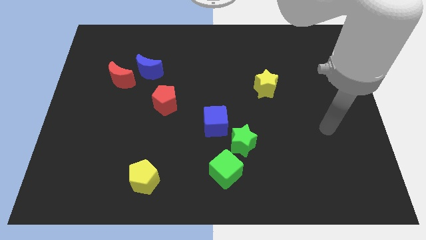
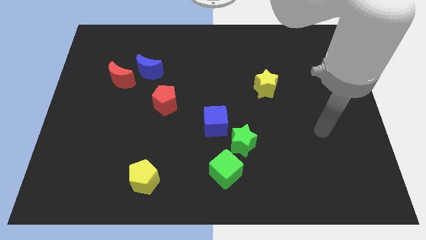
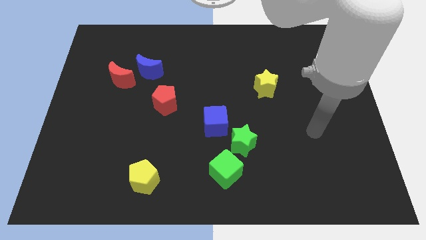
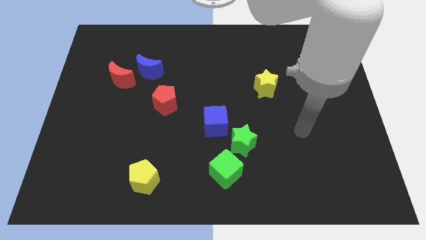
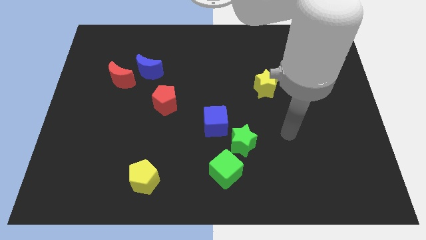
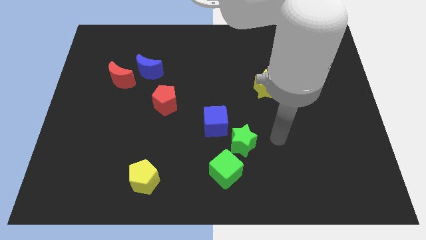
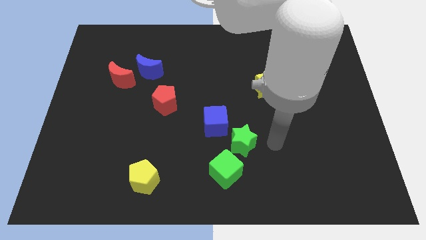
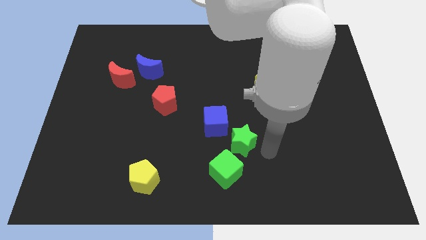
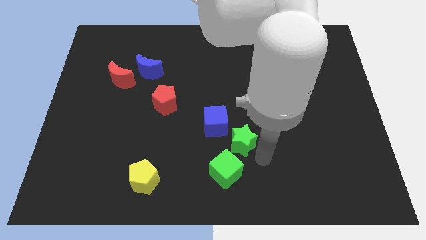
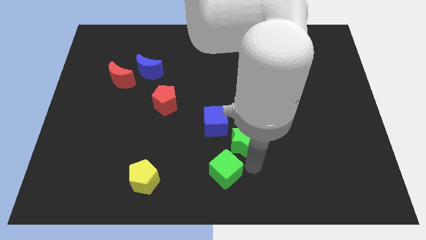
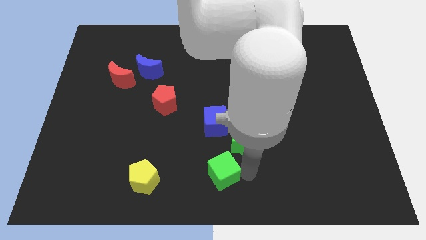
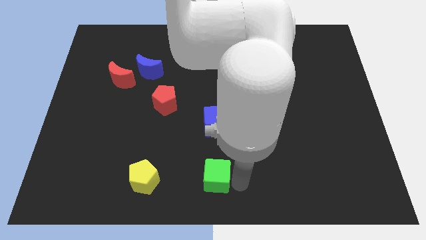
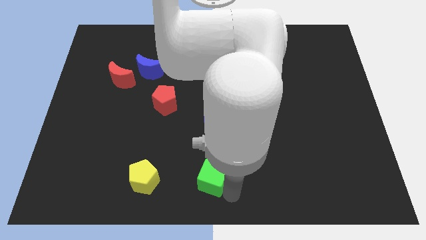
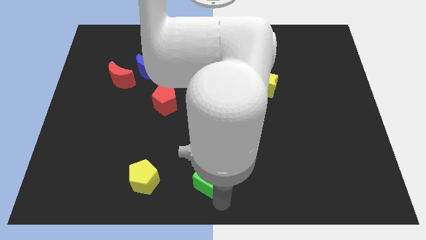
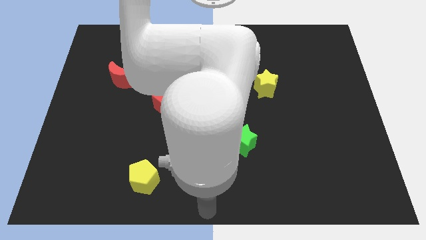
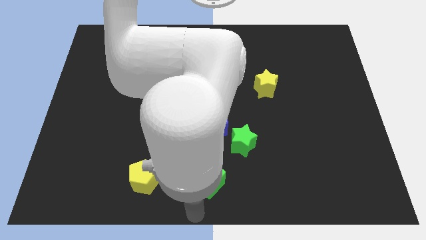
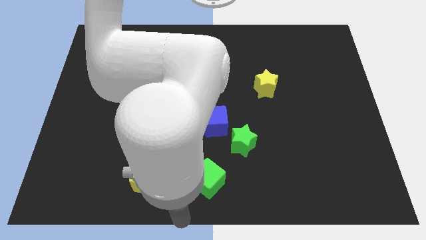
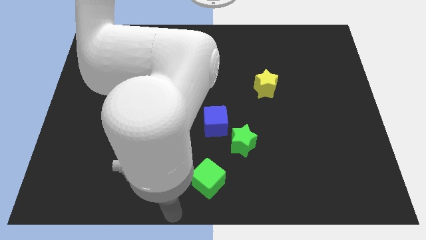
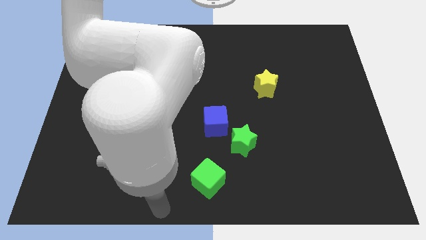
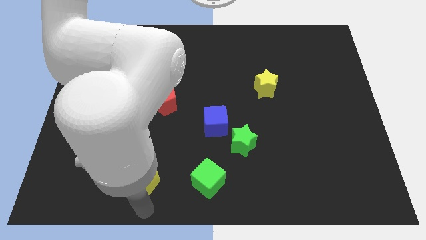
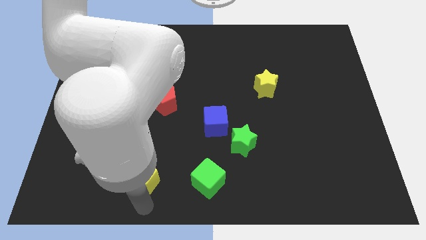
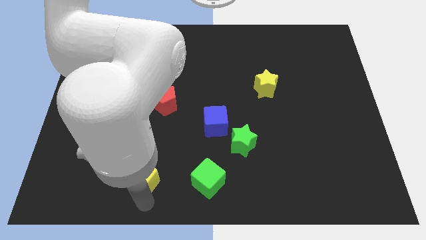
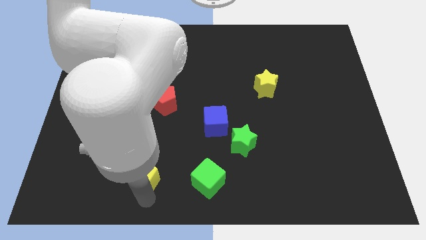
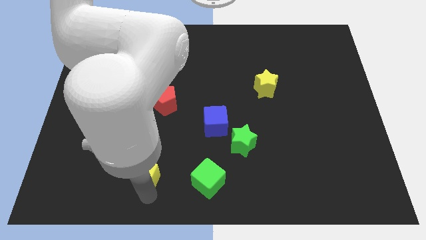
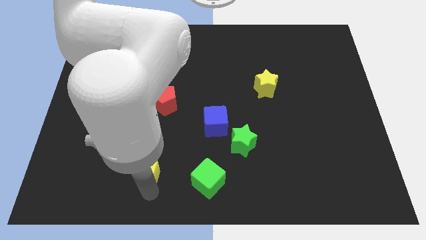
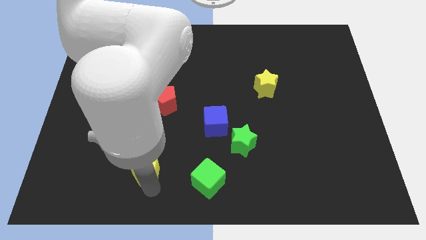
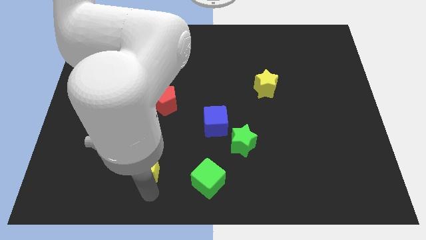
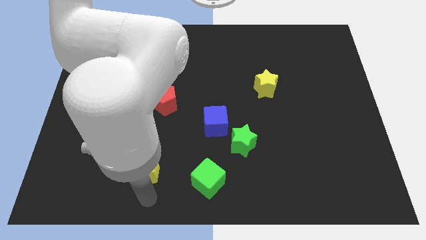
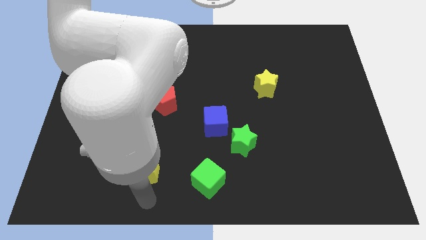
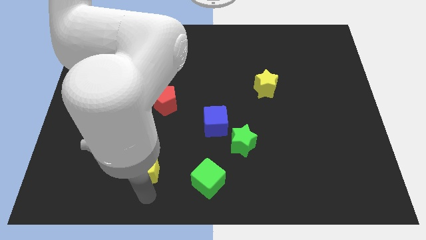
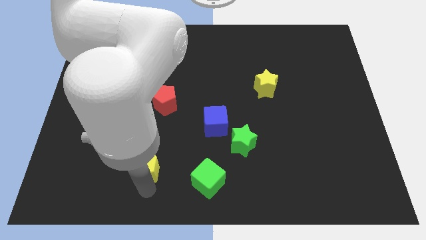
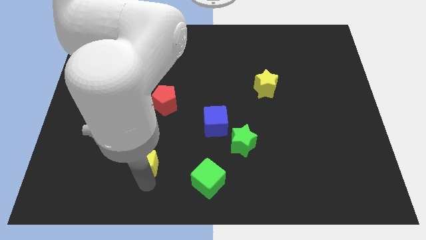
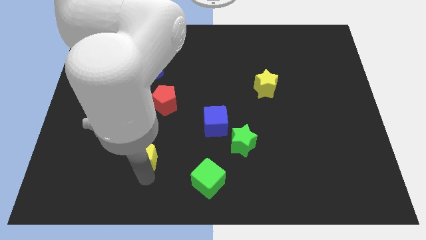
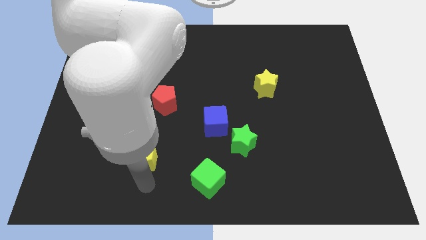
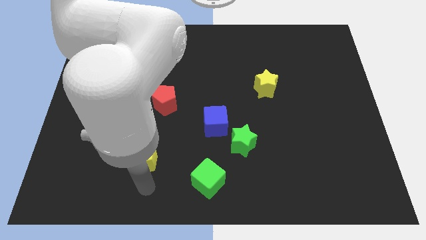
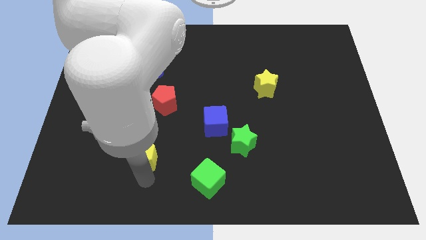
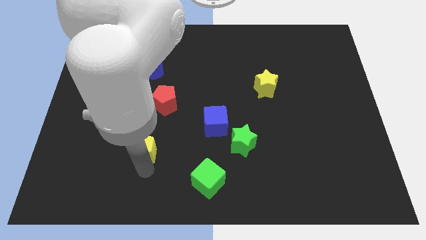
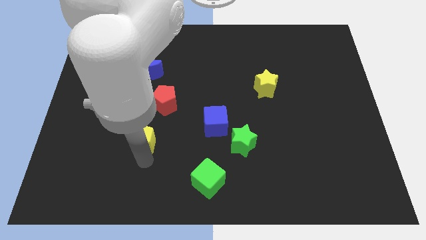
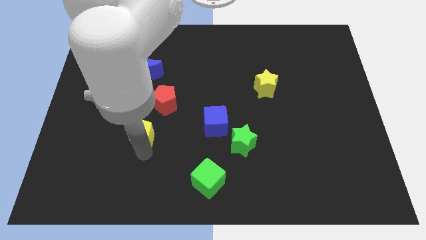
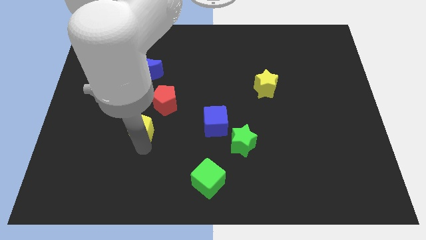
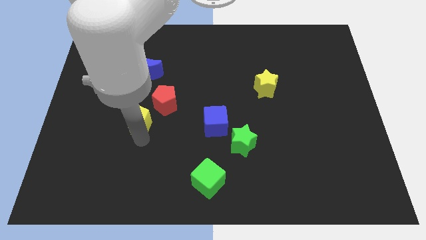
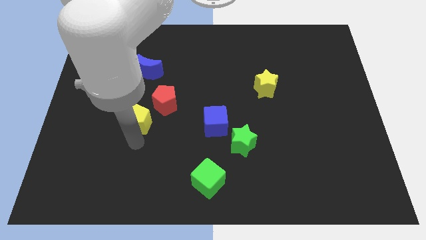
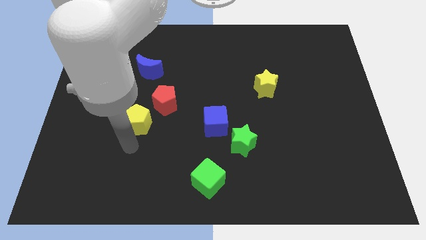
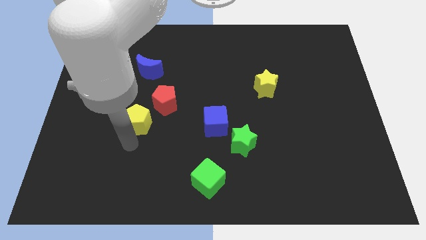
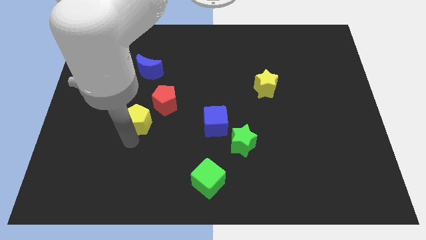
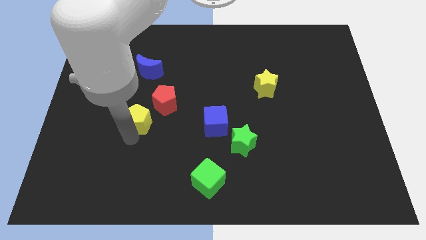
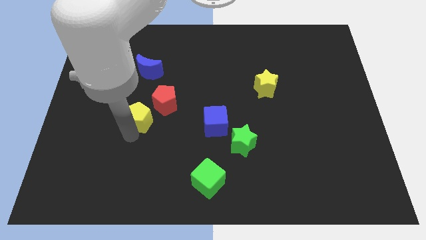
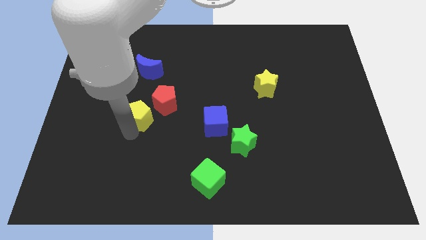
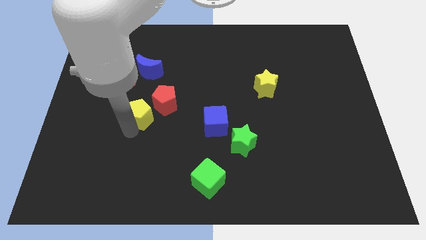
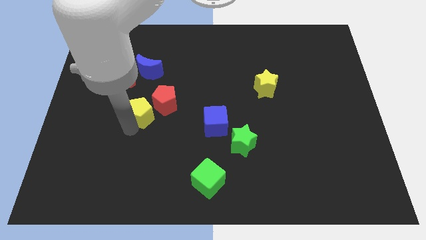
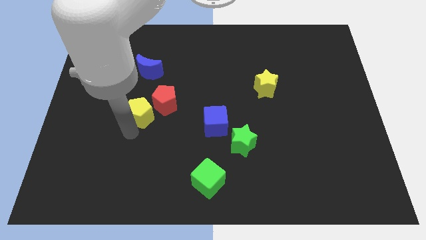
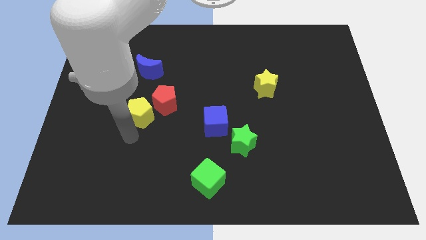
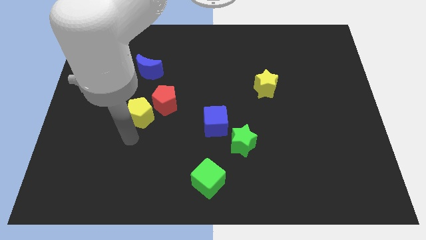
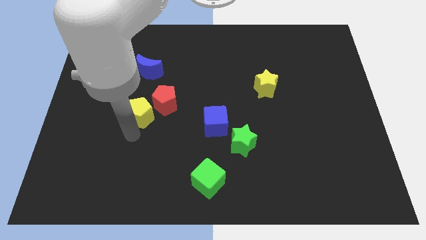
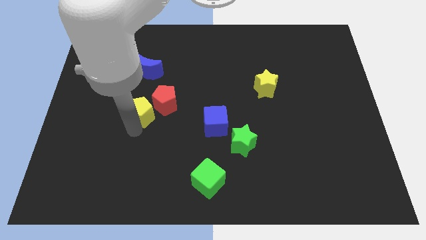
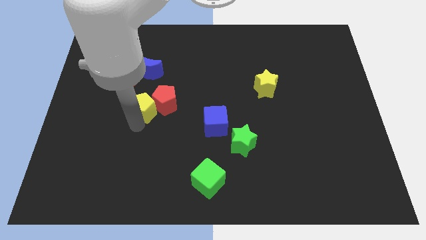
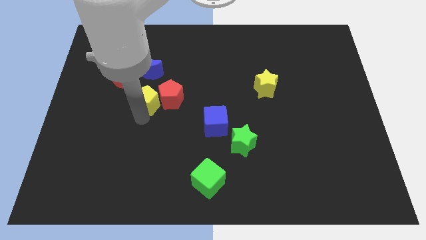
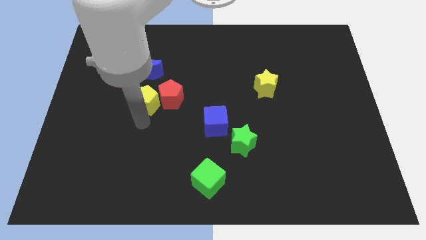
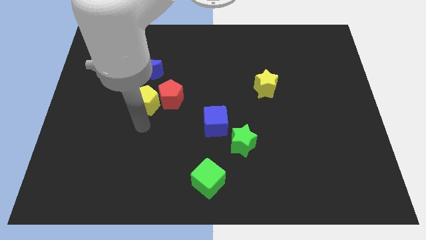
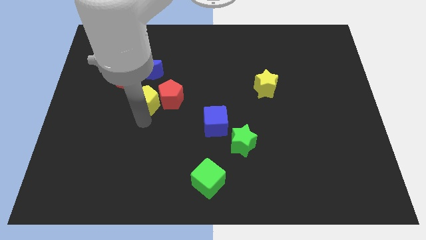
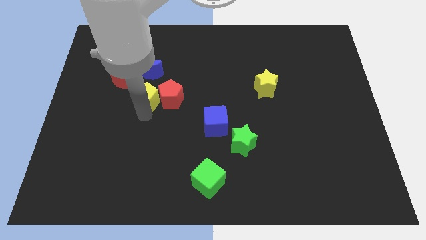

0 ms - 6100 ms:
slide the yellow pentagon to the top left side of the red pentagon

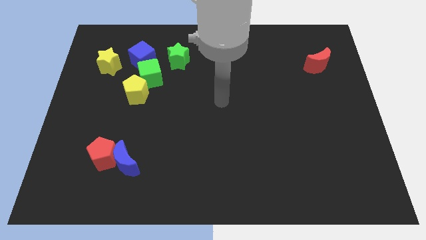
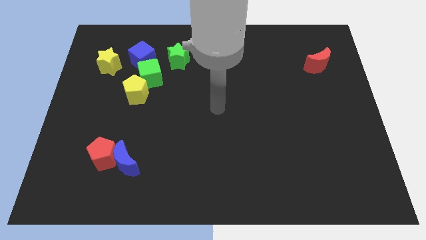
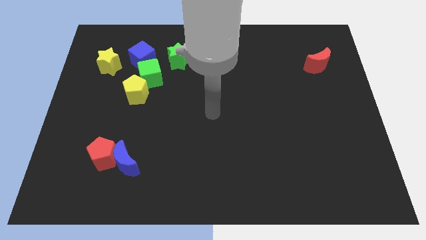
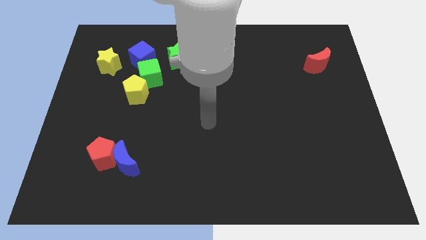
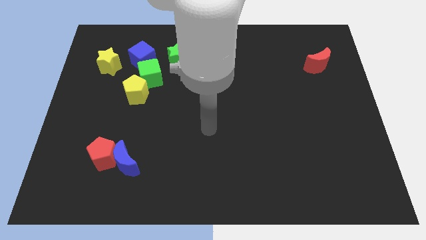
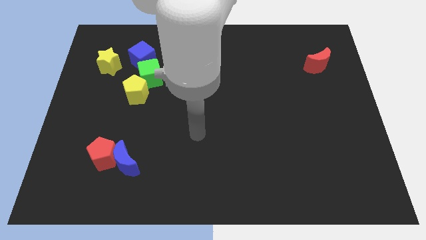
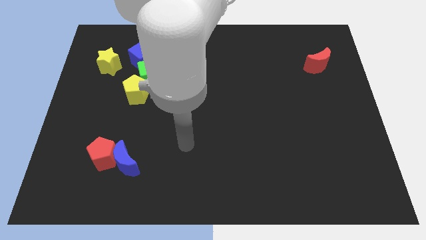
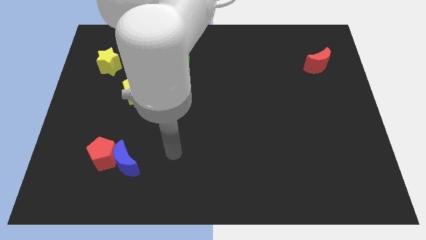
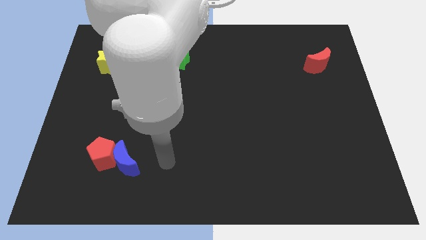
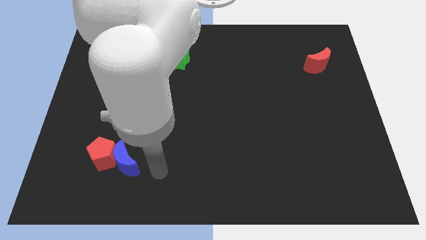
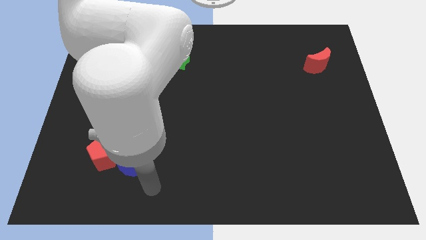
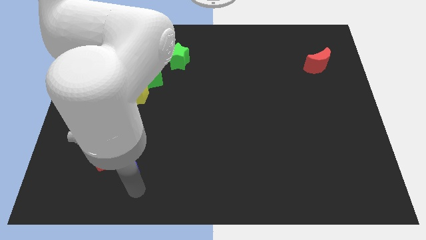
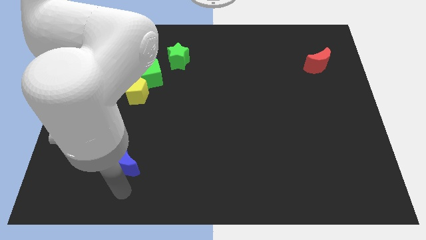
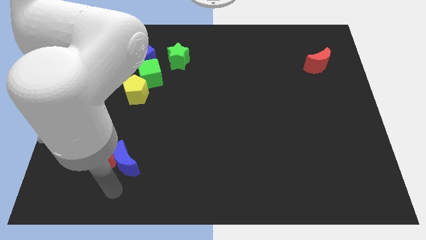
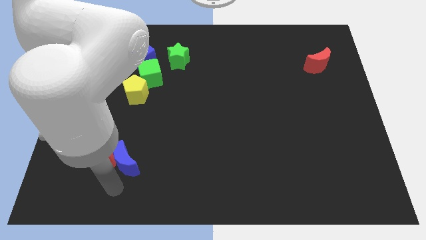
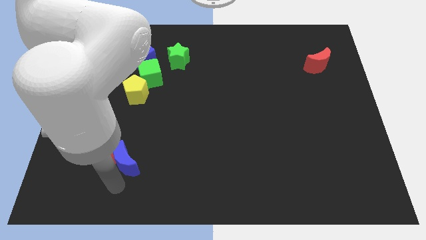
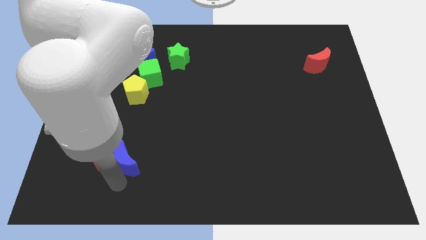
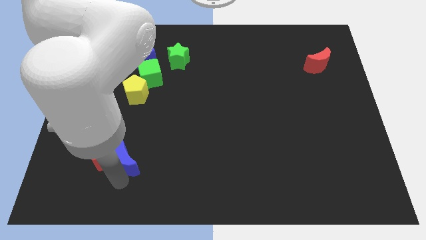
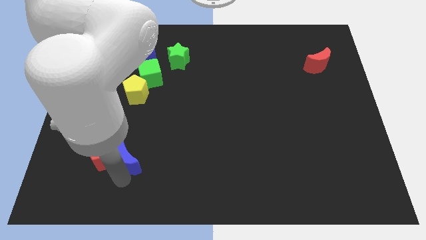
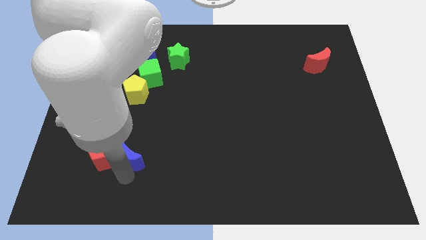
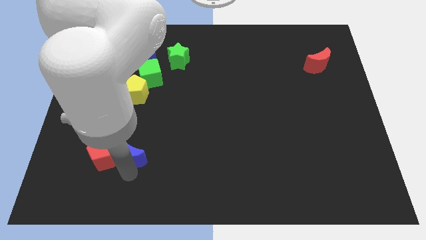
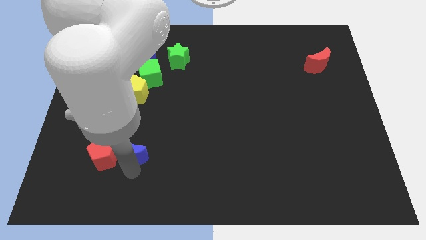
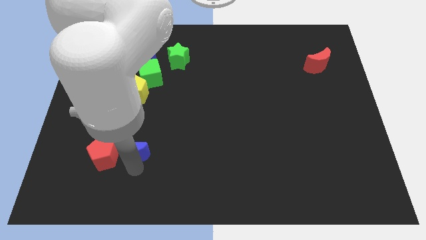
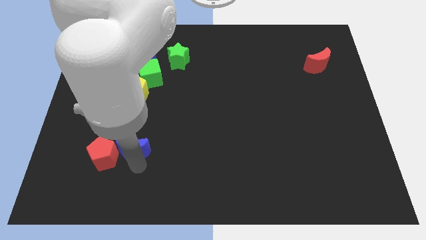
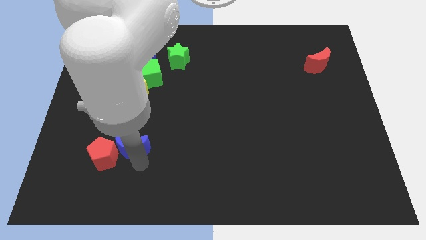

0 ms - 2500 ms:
move the blue moon to the bottom of the yellow pentagon
